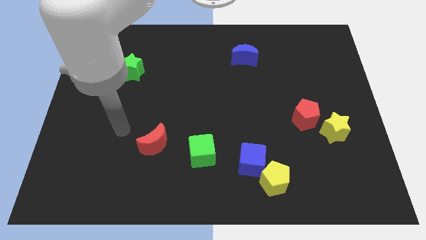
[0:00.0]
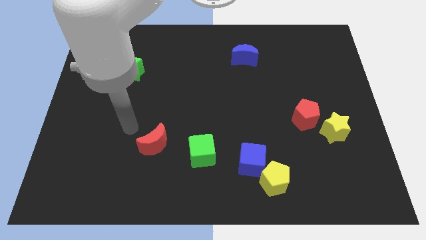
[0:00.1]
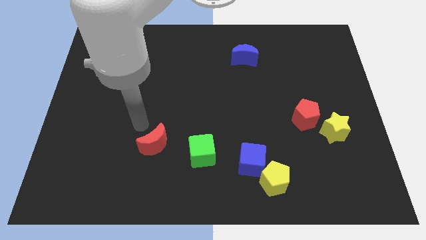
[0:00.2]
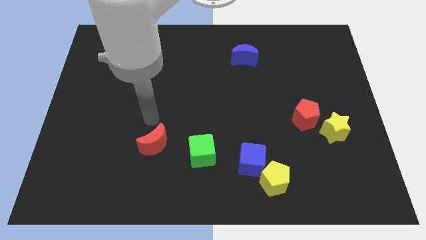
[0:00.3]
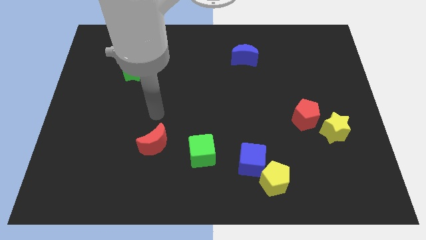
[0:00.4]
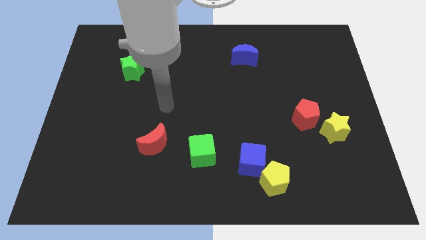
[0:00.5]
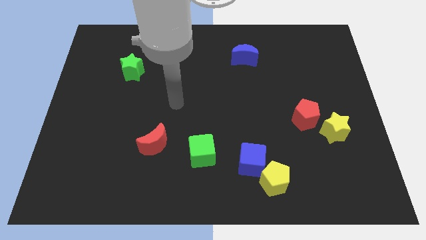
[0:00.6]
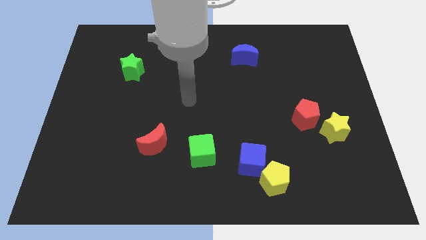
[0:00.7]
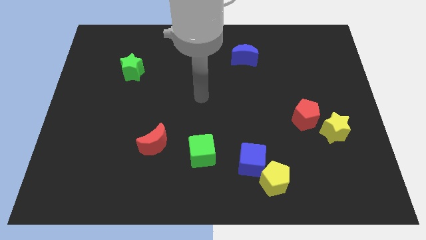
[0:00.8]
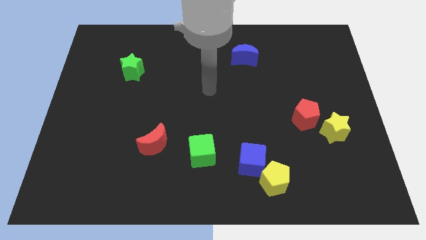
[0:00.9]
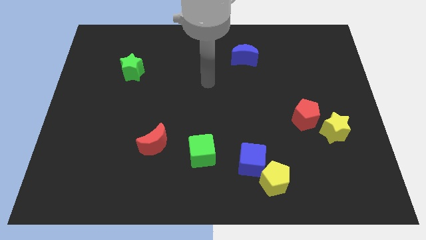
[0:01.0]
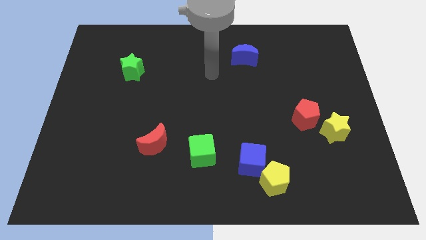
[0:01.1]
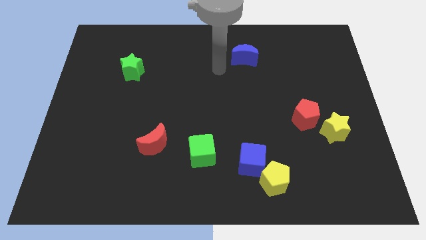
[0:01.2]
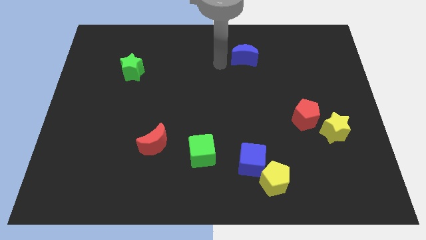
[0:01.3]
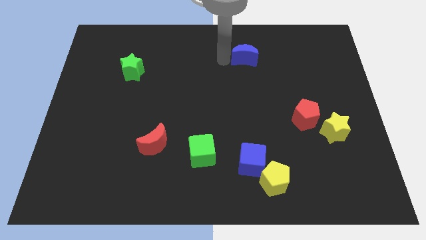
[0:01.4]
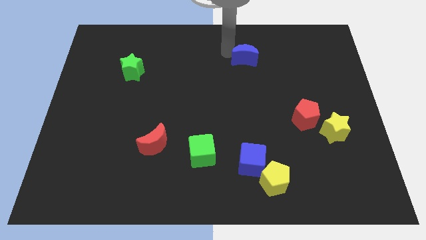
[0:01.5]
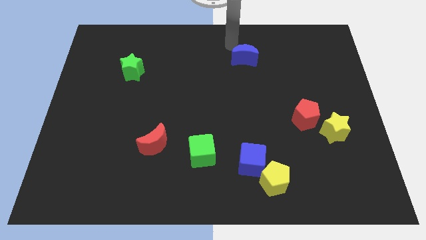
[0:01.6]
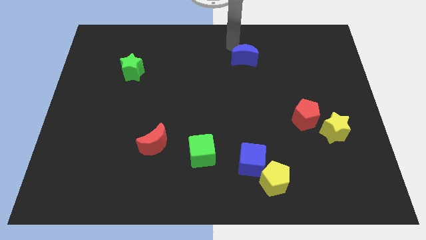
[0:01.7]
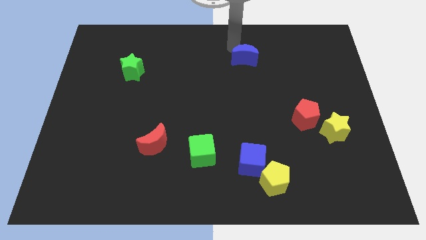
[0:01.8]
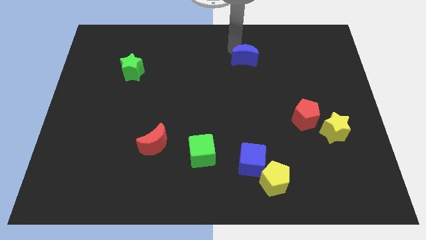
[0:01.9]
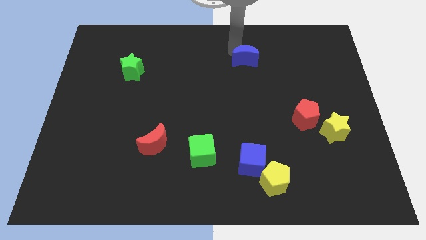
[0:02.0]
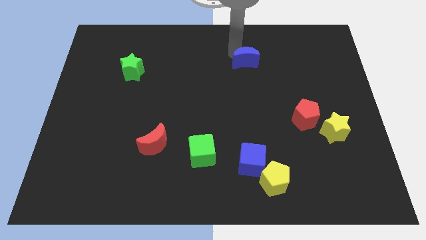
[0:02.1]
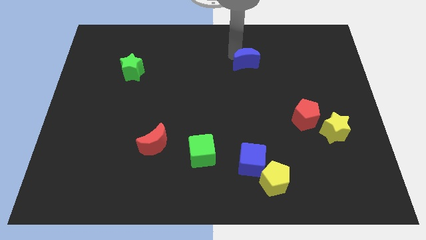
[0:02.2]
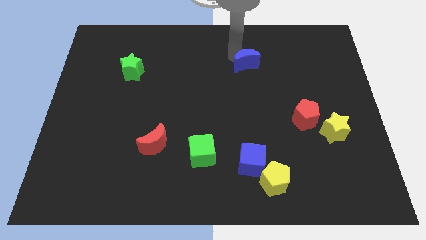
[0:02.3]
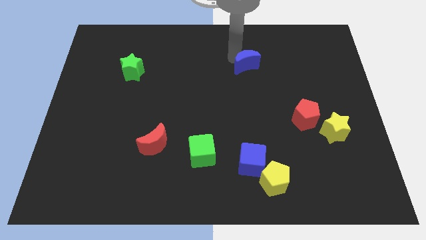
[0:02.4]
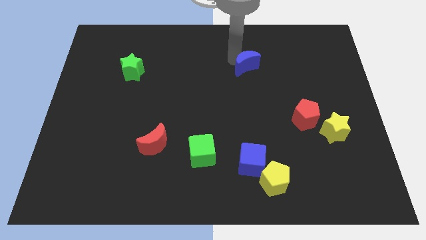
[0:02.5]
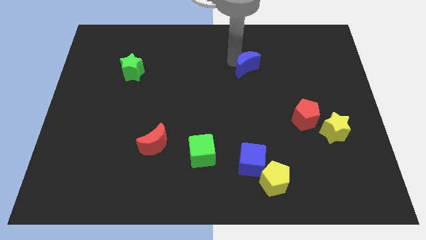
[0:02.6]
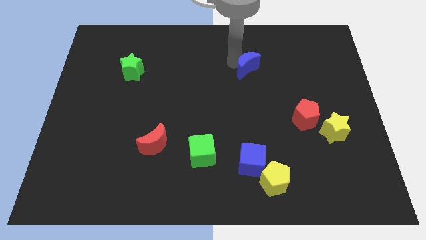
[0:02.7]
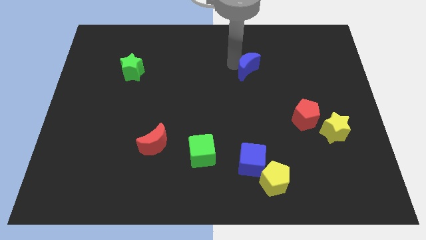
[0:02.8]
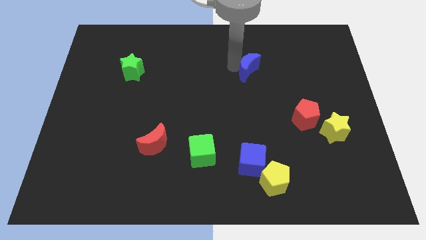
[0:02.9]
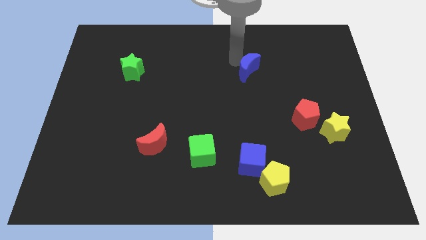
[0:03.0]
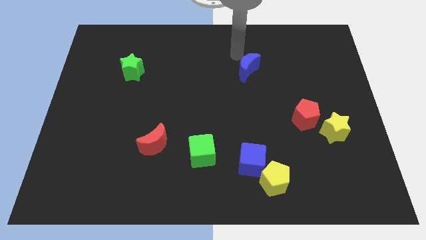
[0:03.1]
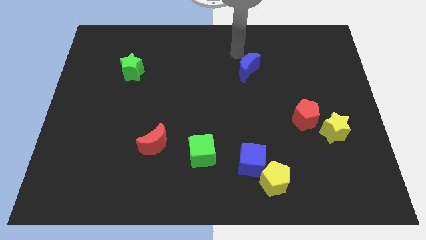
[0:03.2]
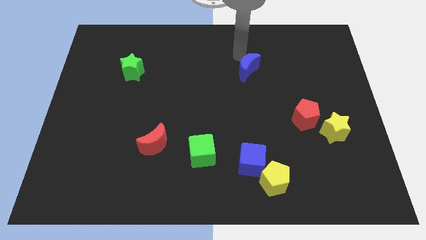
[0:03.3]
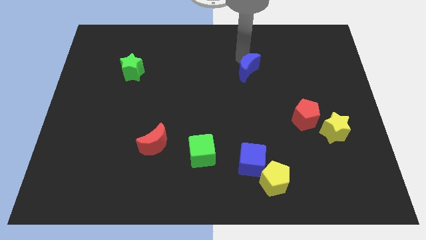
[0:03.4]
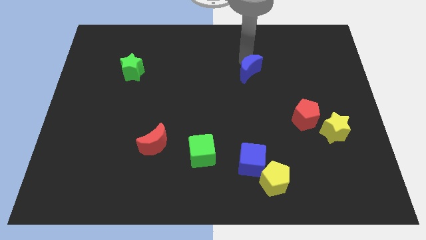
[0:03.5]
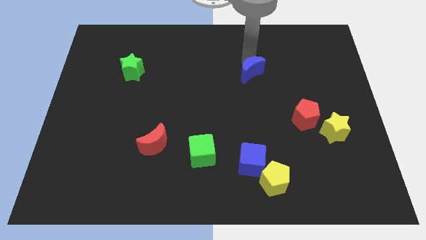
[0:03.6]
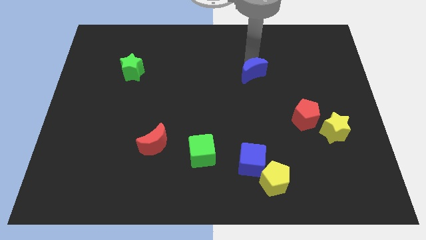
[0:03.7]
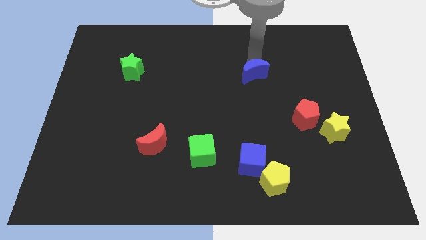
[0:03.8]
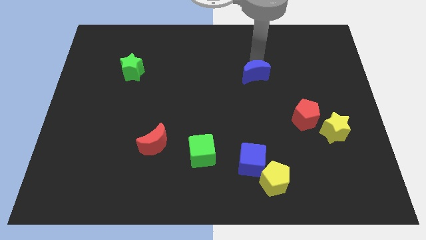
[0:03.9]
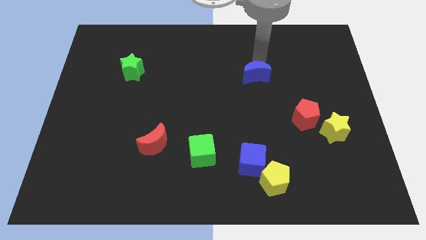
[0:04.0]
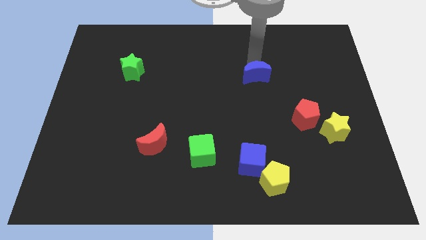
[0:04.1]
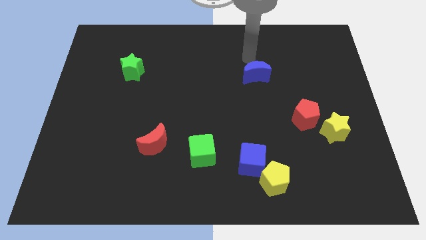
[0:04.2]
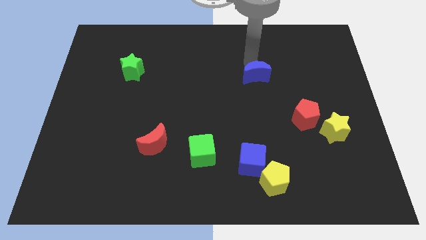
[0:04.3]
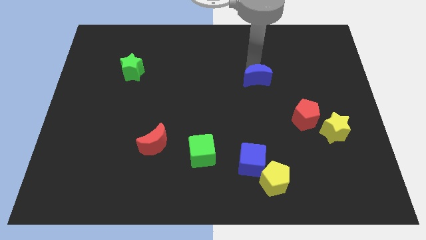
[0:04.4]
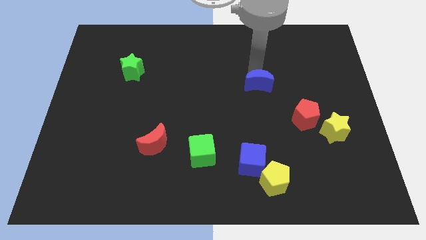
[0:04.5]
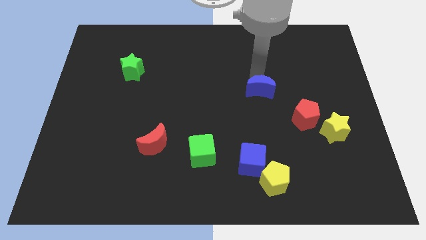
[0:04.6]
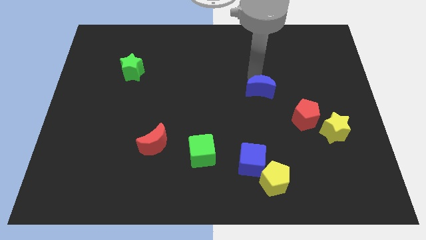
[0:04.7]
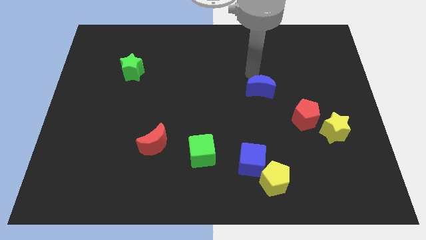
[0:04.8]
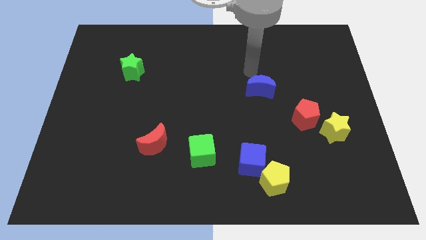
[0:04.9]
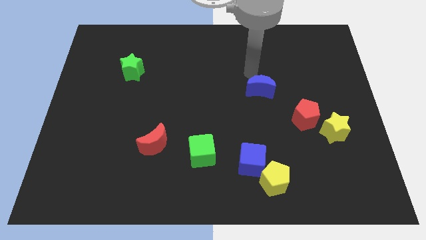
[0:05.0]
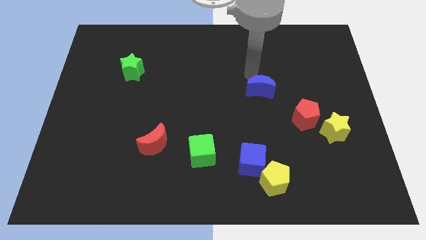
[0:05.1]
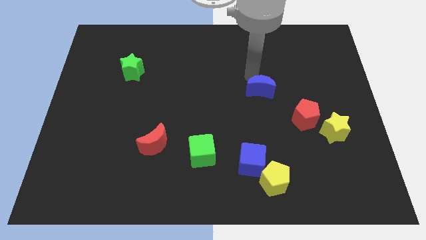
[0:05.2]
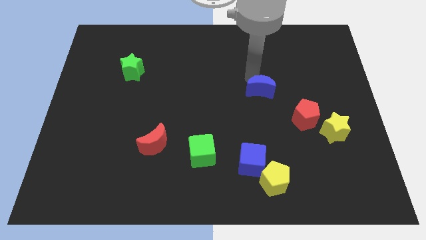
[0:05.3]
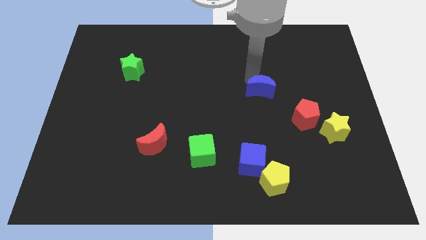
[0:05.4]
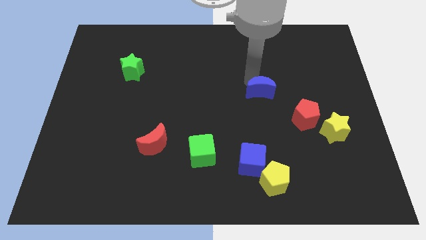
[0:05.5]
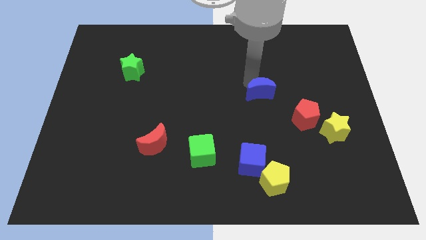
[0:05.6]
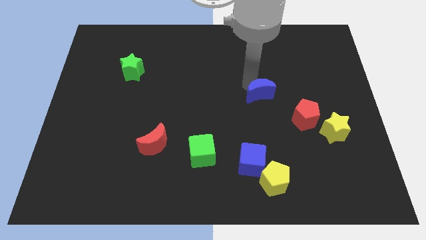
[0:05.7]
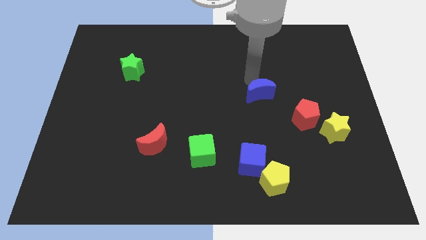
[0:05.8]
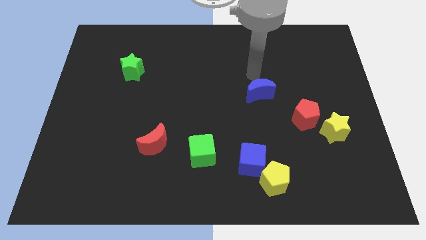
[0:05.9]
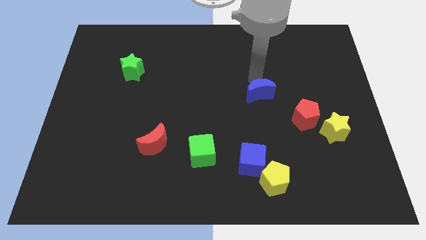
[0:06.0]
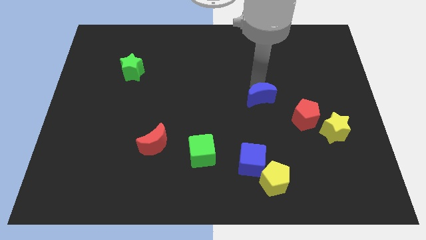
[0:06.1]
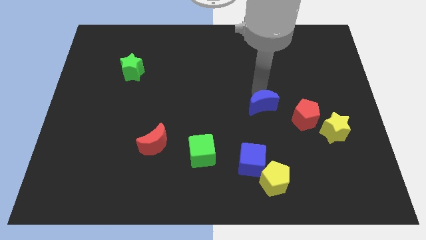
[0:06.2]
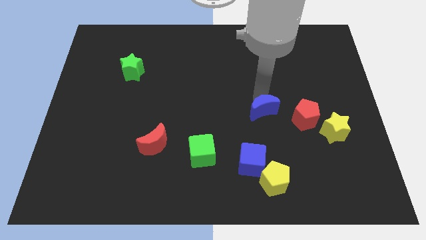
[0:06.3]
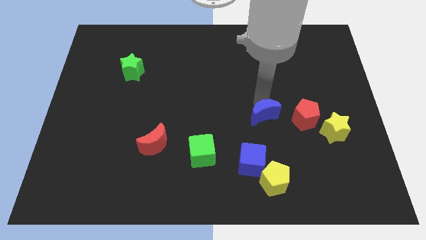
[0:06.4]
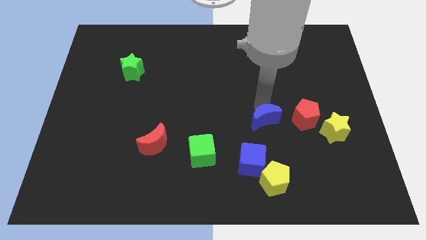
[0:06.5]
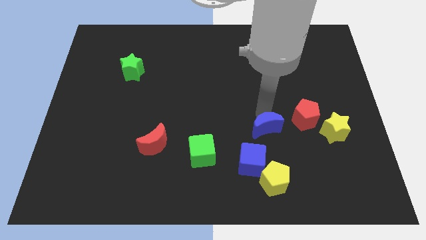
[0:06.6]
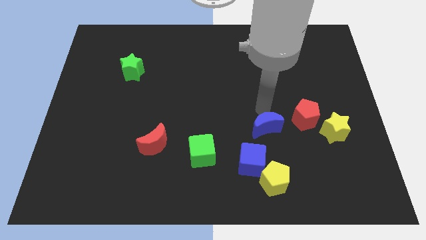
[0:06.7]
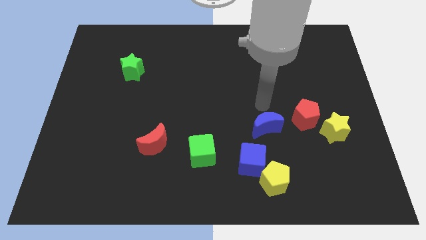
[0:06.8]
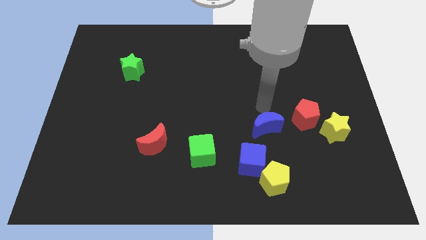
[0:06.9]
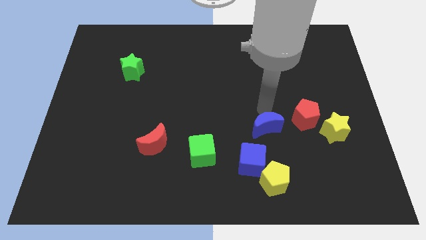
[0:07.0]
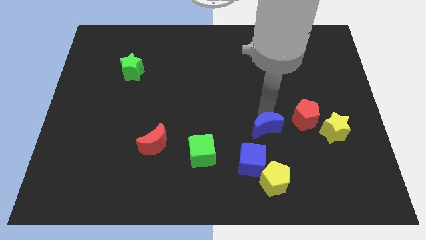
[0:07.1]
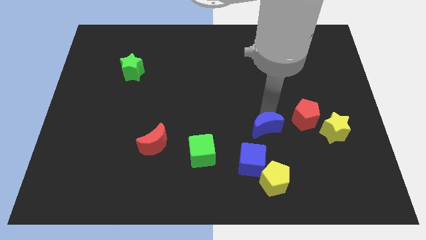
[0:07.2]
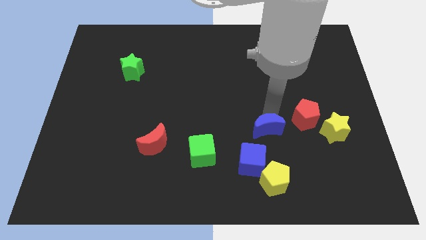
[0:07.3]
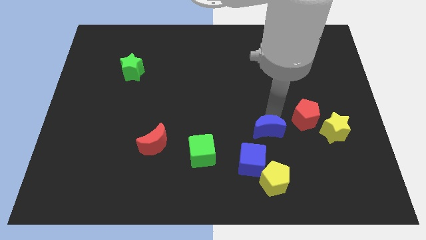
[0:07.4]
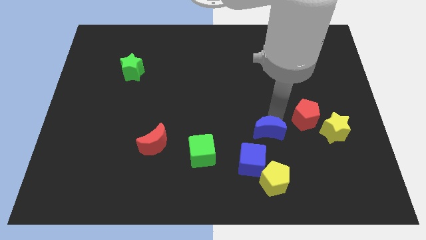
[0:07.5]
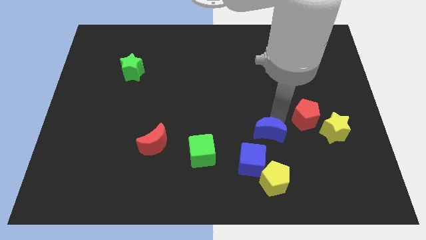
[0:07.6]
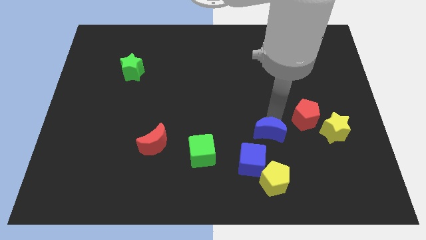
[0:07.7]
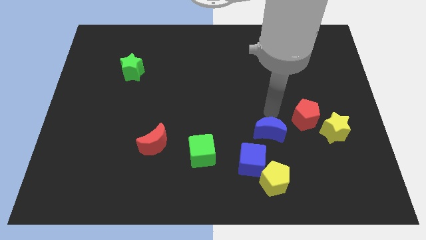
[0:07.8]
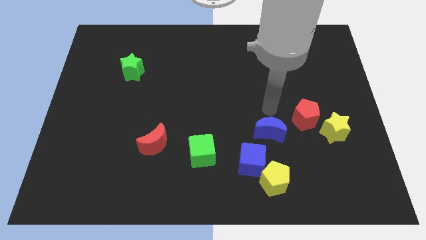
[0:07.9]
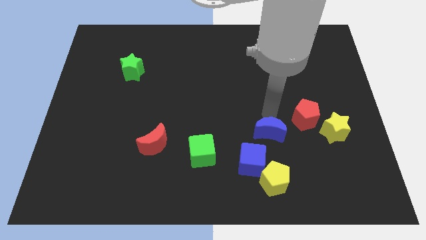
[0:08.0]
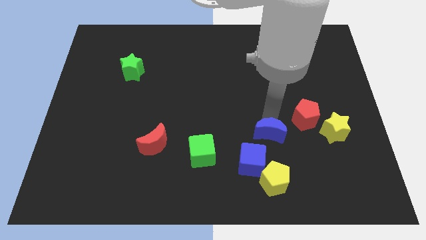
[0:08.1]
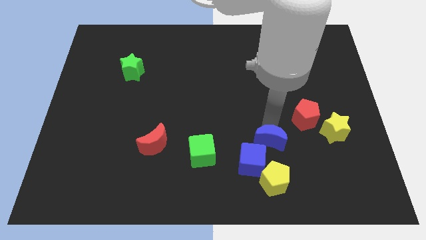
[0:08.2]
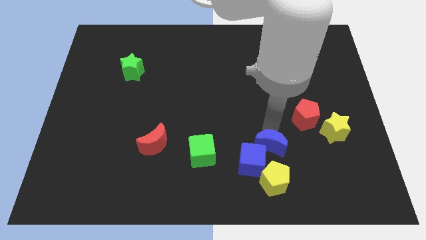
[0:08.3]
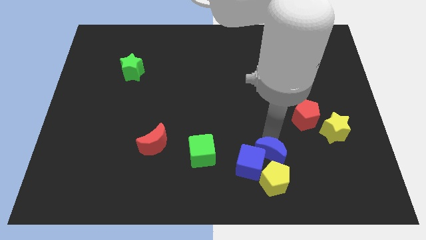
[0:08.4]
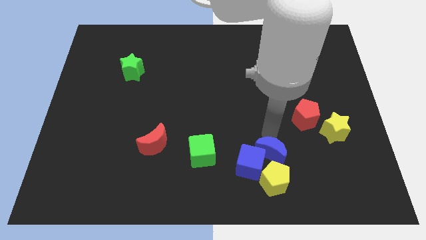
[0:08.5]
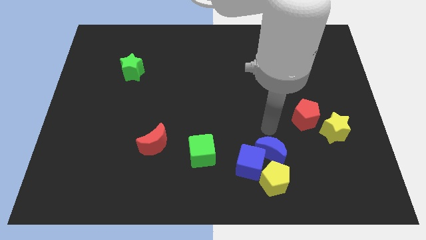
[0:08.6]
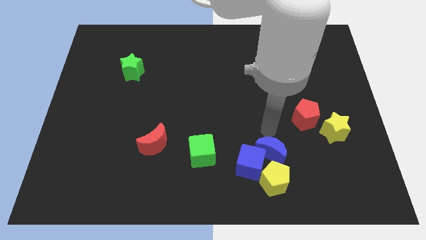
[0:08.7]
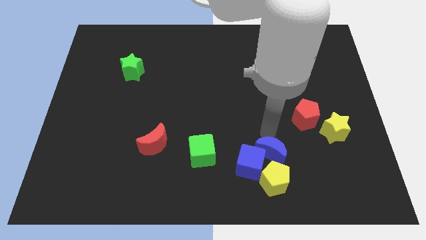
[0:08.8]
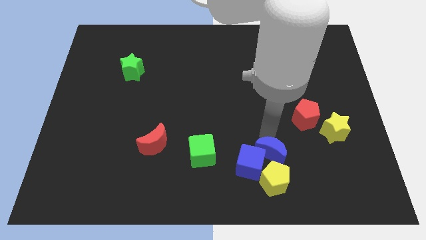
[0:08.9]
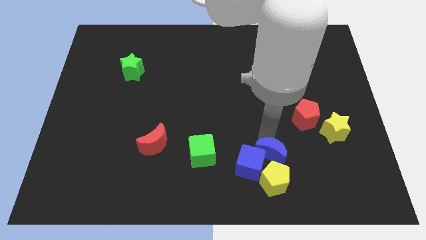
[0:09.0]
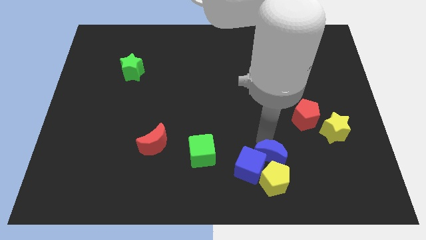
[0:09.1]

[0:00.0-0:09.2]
push the blue moon next to the yellow pentagon
